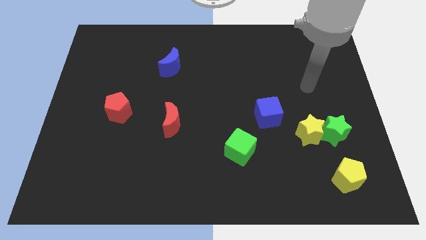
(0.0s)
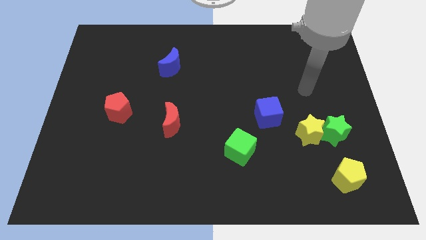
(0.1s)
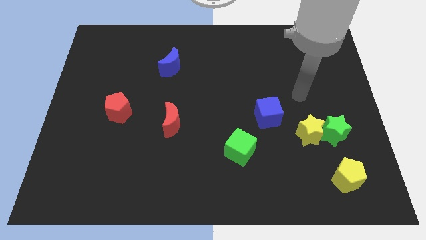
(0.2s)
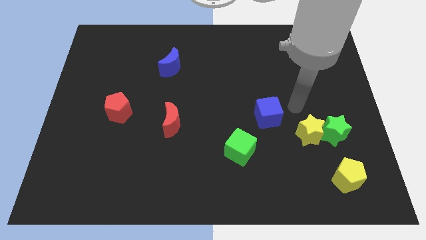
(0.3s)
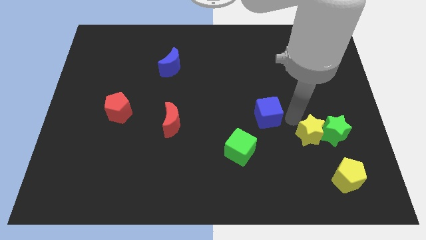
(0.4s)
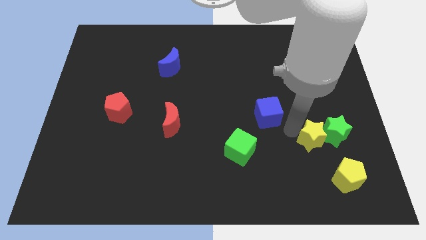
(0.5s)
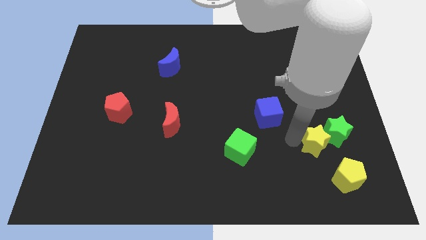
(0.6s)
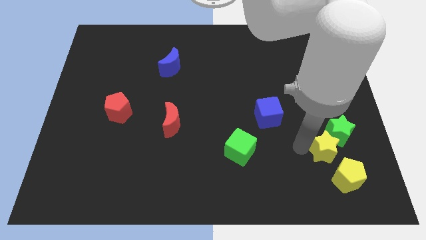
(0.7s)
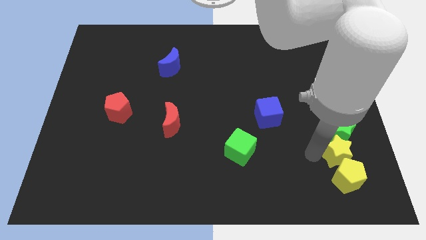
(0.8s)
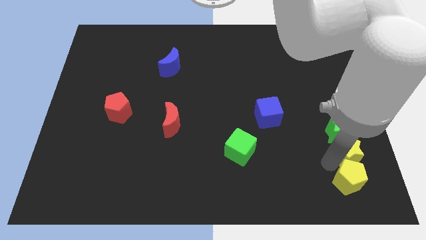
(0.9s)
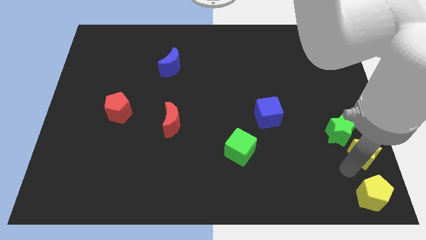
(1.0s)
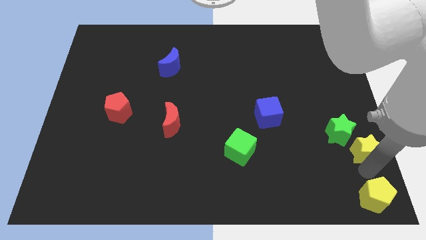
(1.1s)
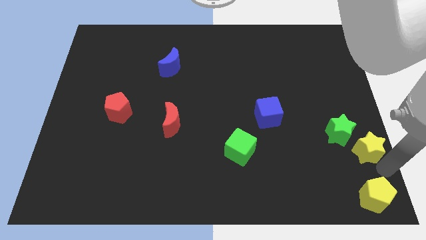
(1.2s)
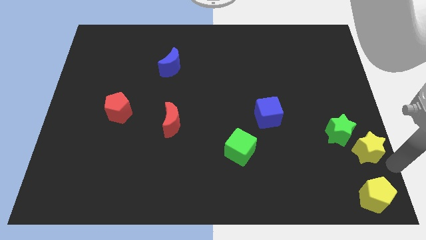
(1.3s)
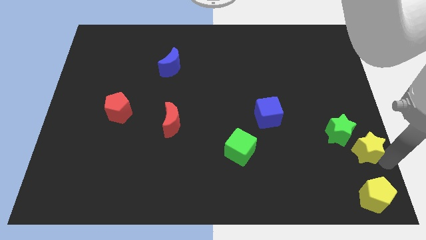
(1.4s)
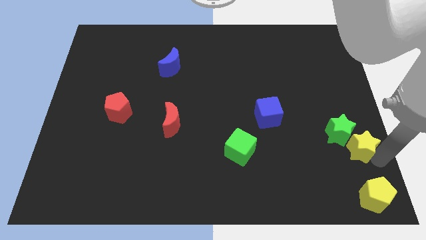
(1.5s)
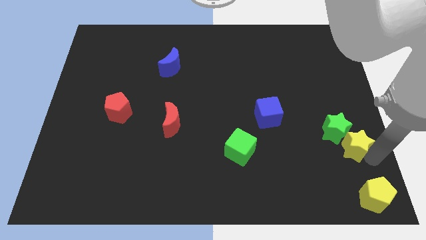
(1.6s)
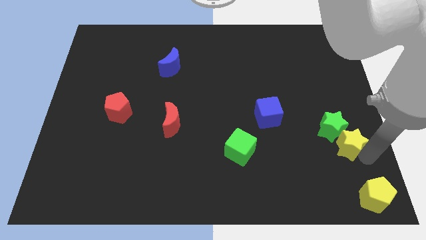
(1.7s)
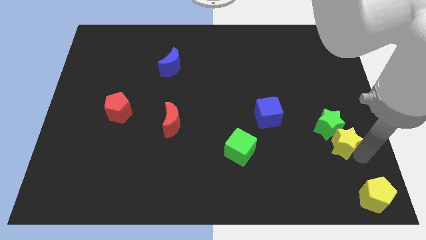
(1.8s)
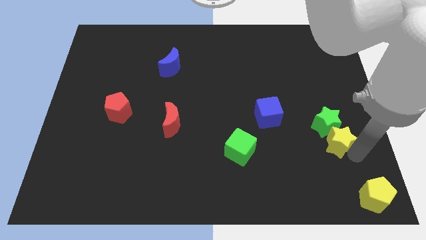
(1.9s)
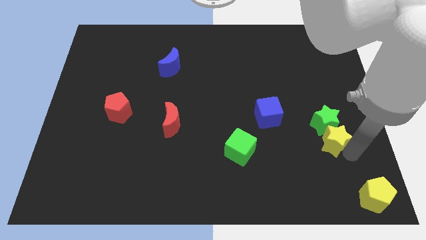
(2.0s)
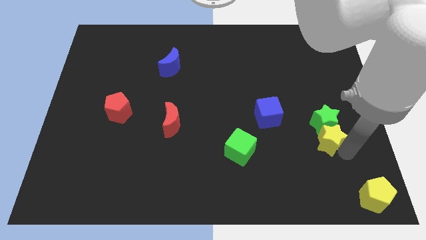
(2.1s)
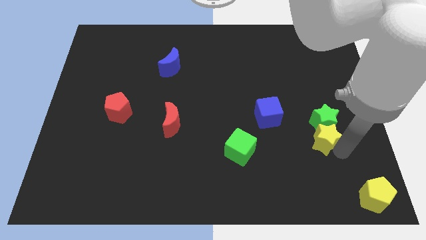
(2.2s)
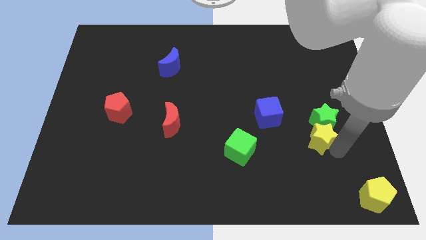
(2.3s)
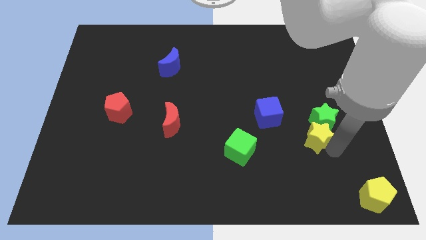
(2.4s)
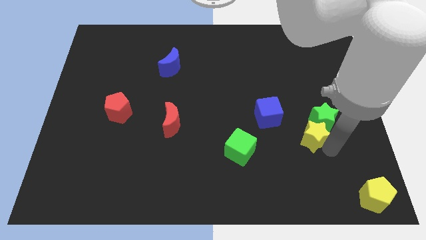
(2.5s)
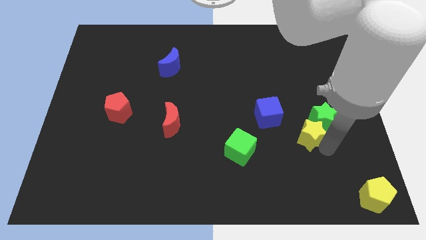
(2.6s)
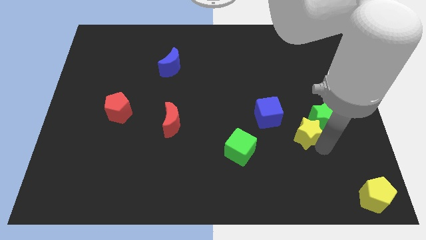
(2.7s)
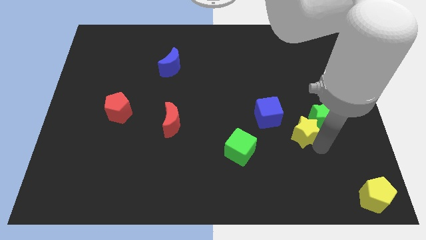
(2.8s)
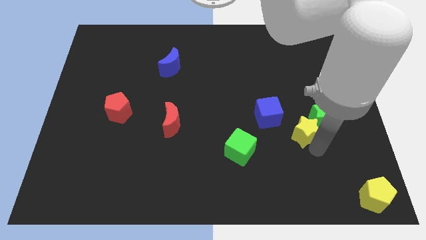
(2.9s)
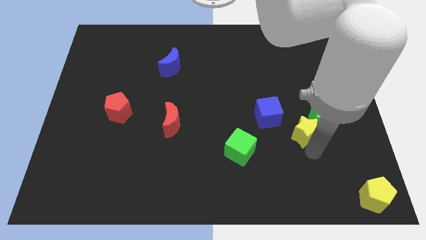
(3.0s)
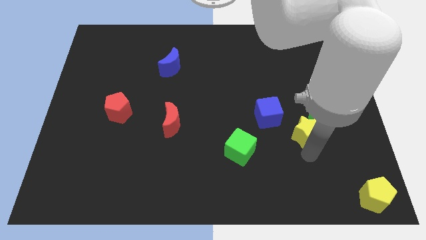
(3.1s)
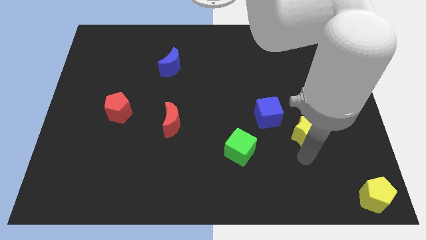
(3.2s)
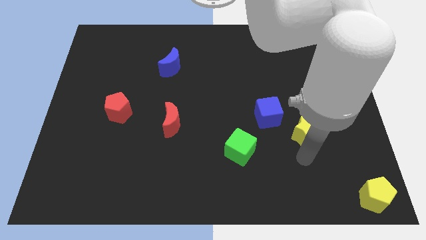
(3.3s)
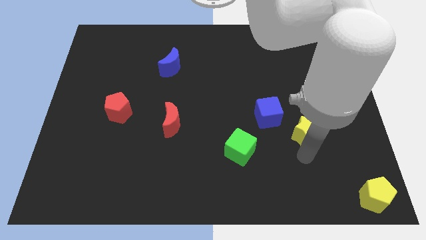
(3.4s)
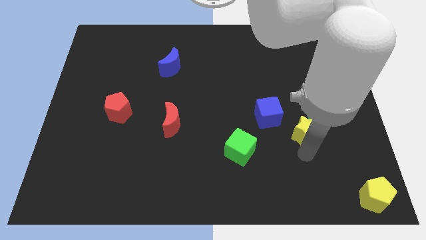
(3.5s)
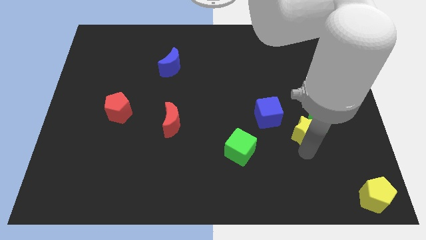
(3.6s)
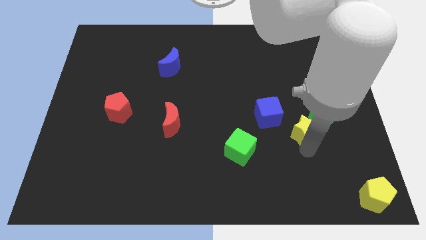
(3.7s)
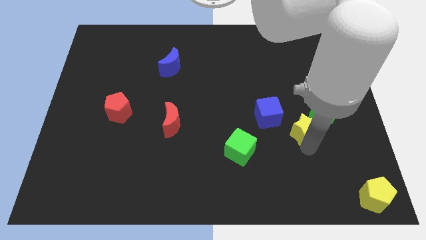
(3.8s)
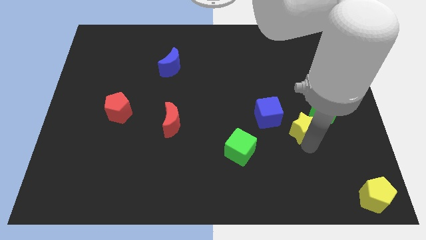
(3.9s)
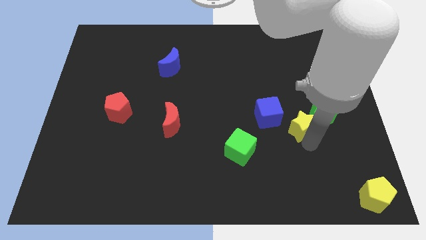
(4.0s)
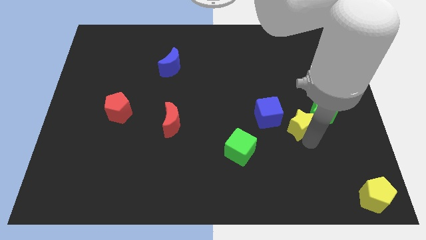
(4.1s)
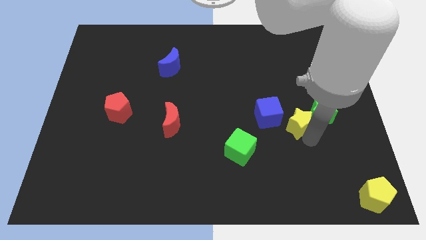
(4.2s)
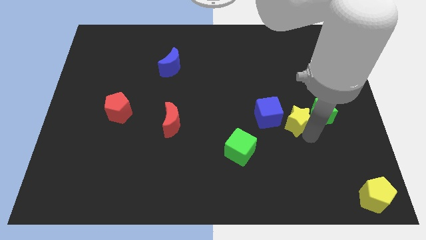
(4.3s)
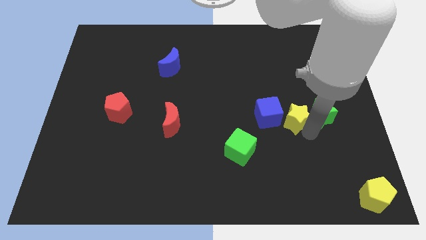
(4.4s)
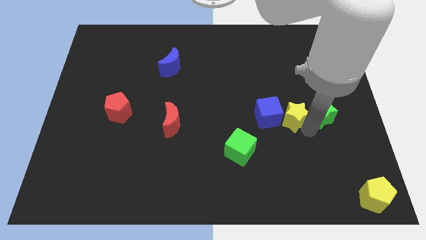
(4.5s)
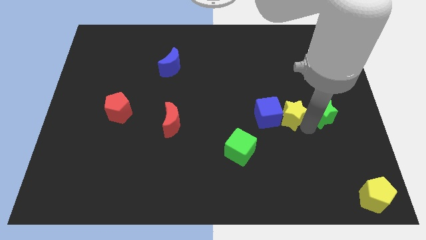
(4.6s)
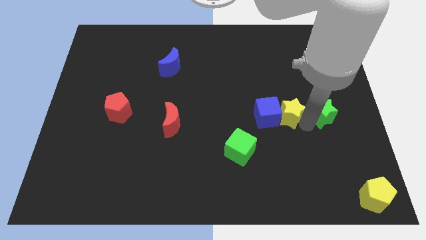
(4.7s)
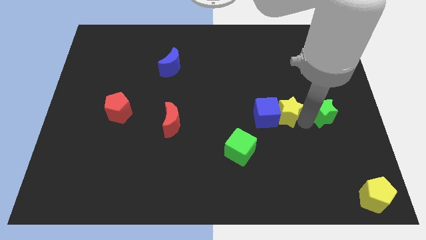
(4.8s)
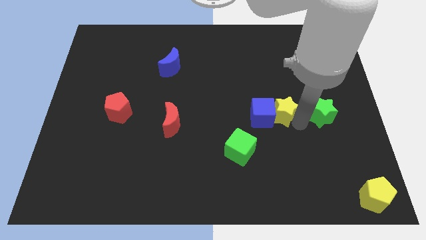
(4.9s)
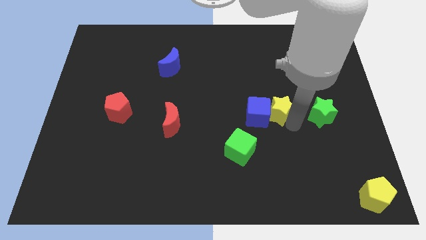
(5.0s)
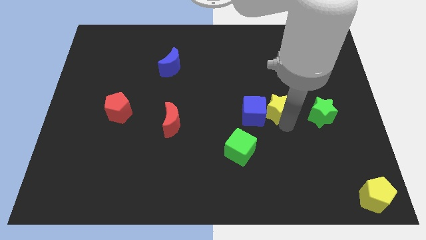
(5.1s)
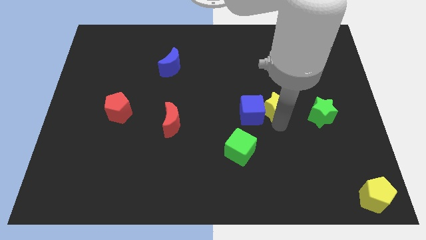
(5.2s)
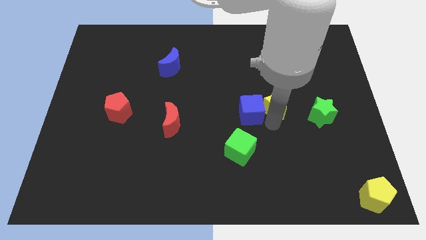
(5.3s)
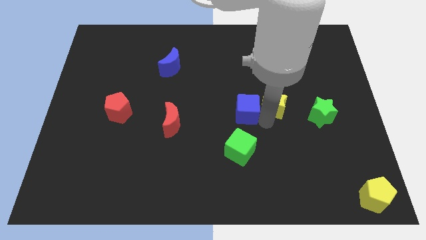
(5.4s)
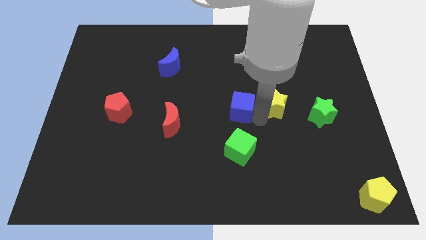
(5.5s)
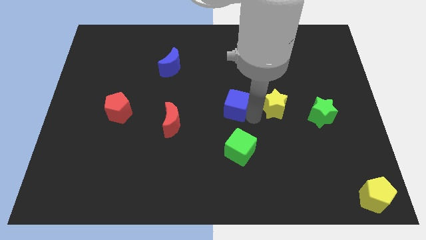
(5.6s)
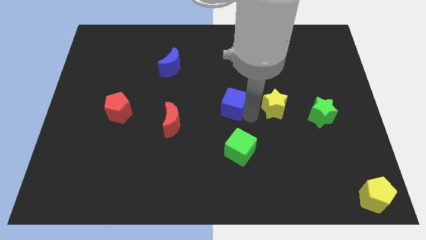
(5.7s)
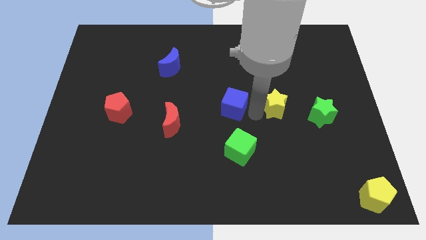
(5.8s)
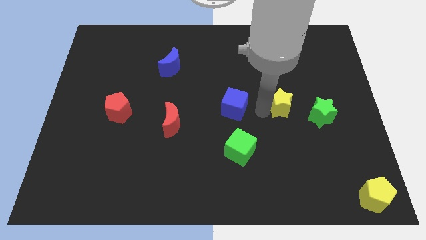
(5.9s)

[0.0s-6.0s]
slide the yellow star up slightly

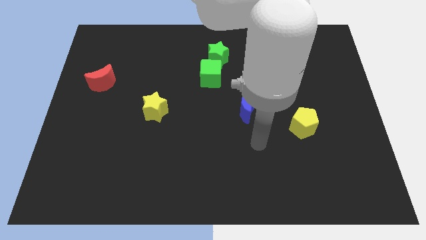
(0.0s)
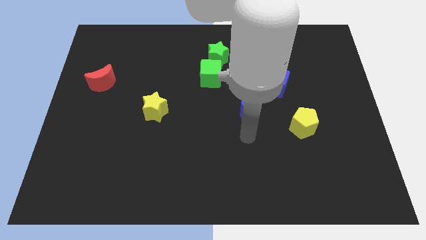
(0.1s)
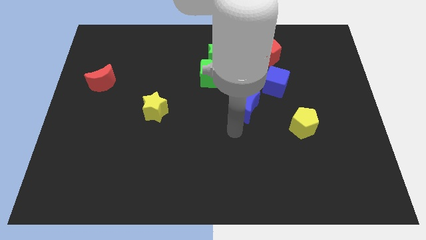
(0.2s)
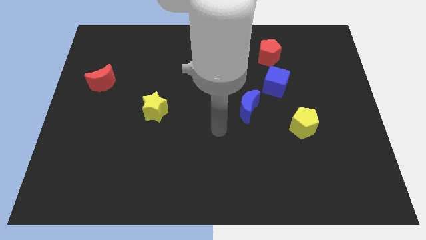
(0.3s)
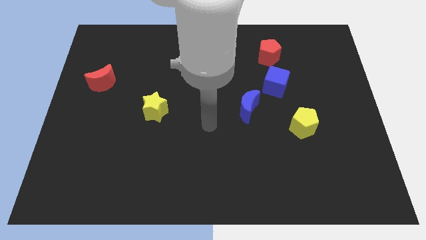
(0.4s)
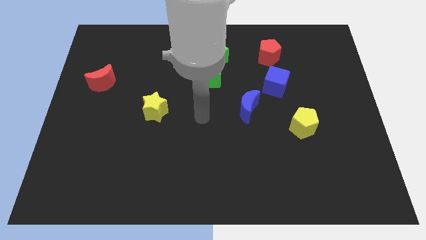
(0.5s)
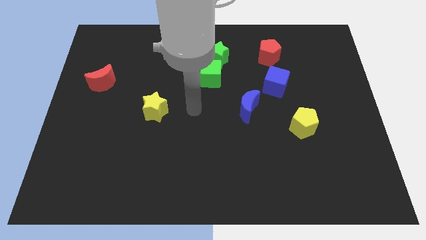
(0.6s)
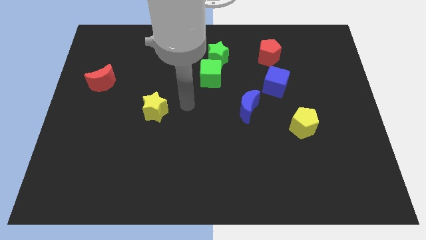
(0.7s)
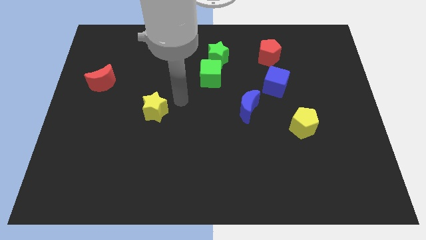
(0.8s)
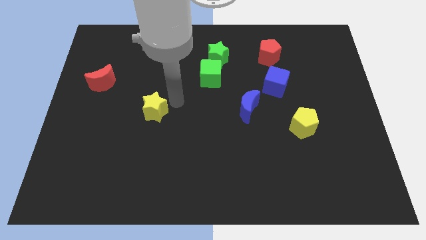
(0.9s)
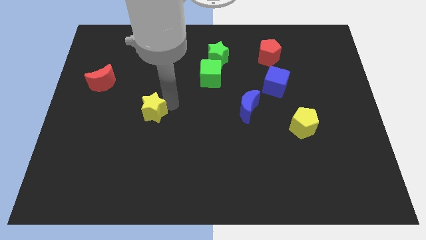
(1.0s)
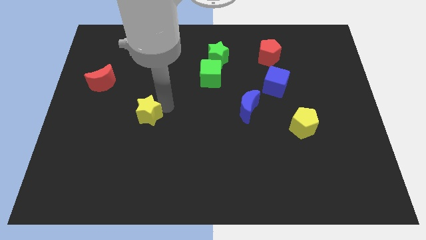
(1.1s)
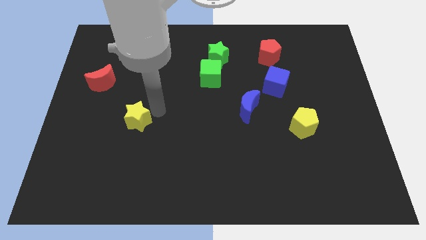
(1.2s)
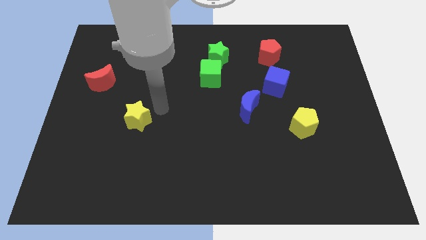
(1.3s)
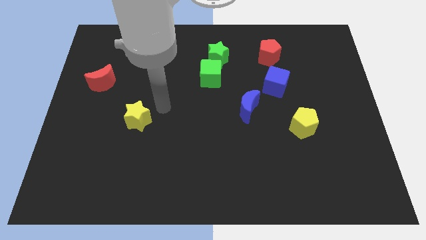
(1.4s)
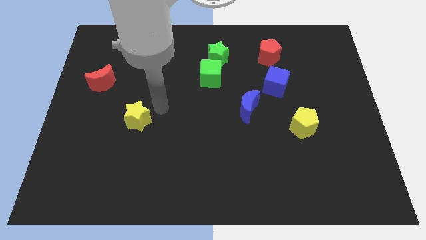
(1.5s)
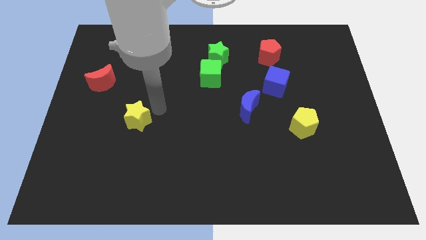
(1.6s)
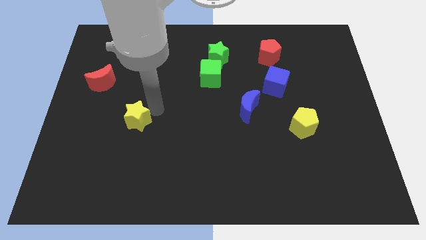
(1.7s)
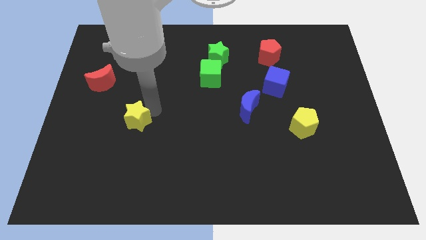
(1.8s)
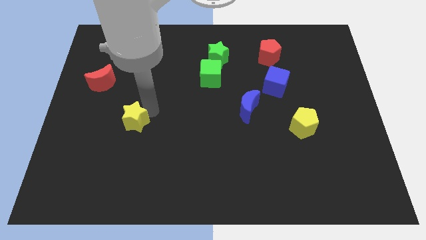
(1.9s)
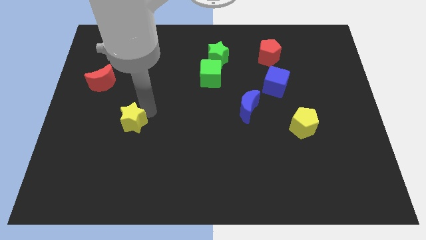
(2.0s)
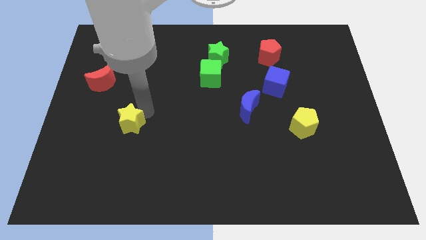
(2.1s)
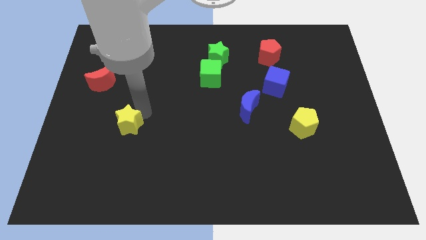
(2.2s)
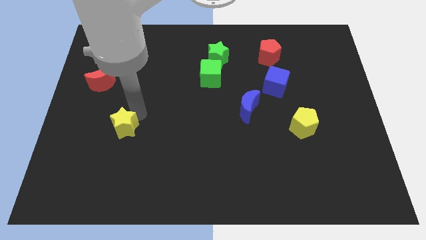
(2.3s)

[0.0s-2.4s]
move the yellow star down and to the left diagonally a little
